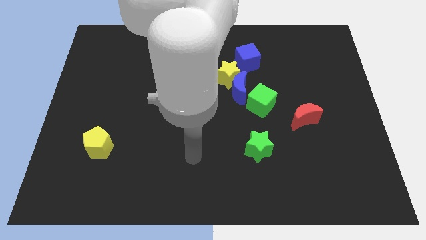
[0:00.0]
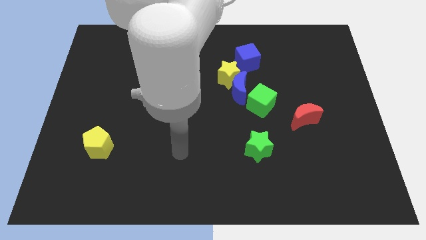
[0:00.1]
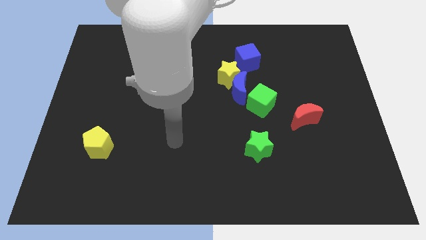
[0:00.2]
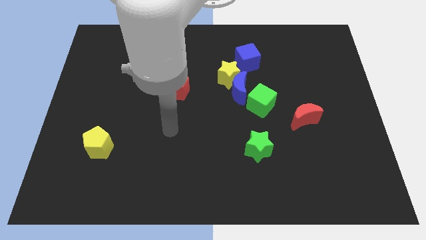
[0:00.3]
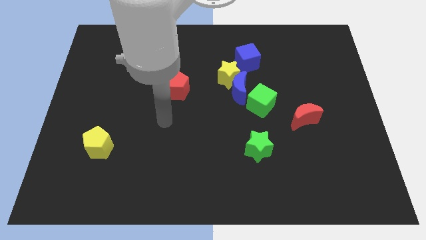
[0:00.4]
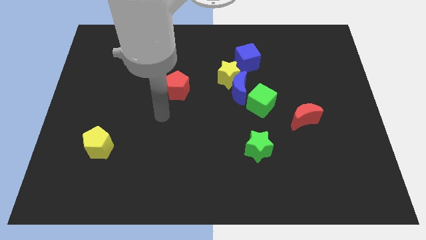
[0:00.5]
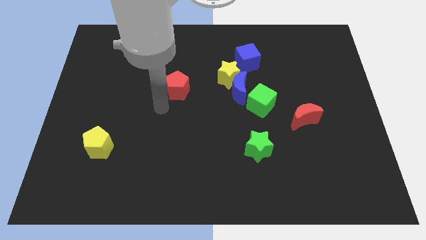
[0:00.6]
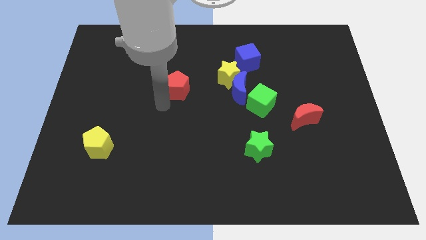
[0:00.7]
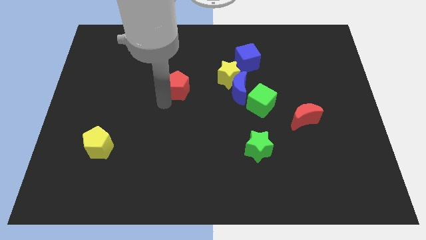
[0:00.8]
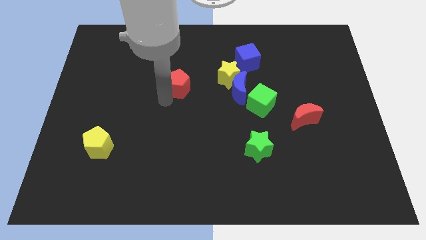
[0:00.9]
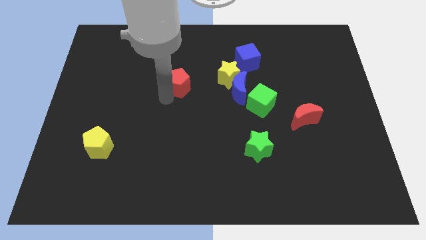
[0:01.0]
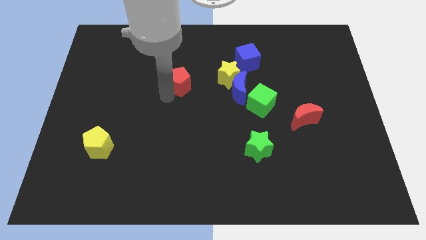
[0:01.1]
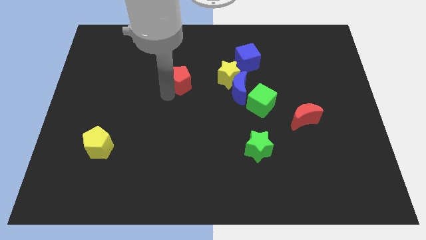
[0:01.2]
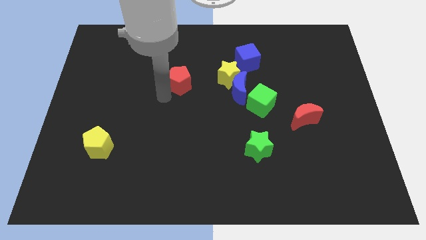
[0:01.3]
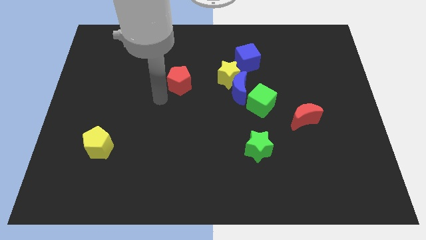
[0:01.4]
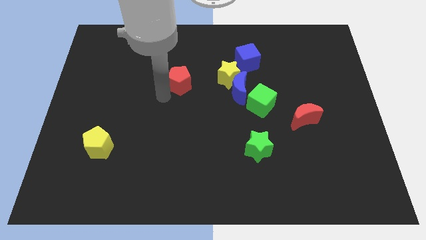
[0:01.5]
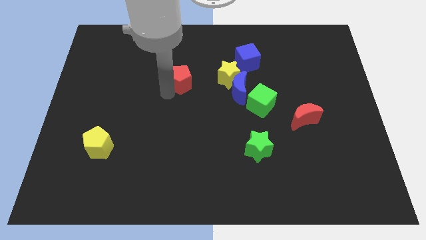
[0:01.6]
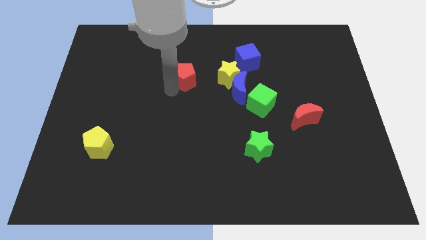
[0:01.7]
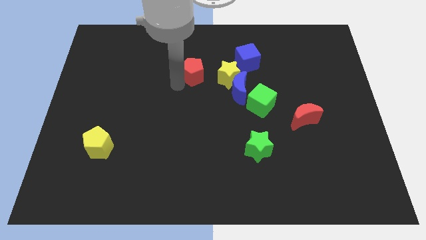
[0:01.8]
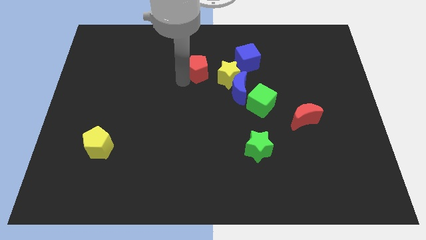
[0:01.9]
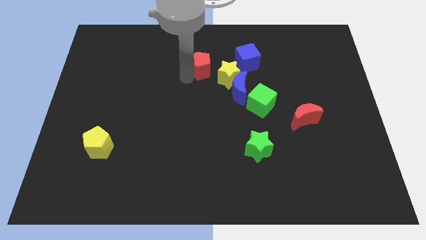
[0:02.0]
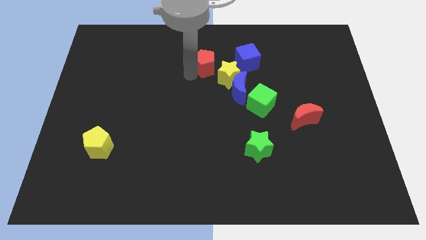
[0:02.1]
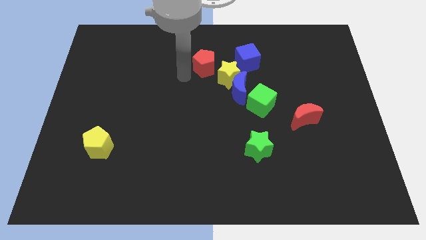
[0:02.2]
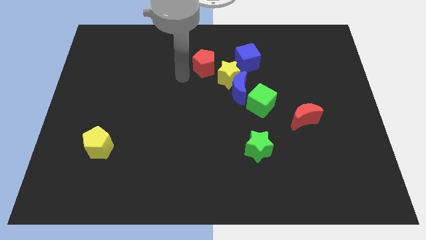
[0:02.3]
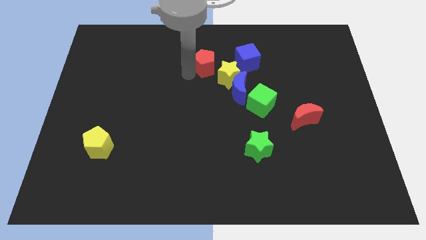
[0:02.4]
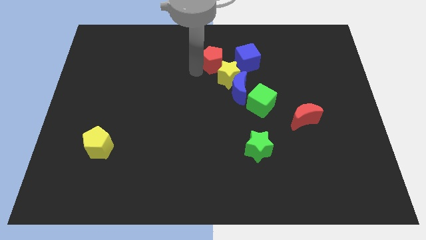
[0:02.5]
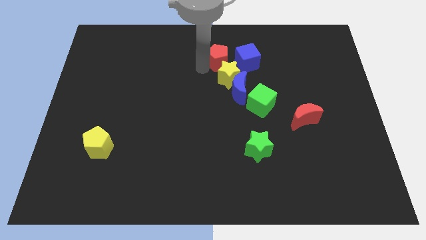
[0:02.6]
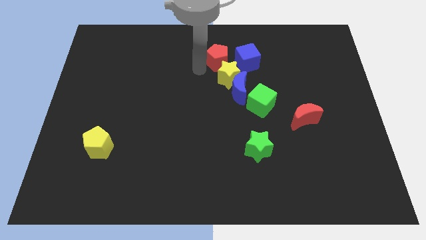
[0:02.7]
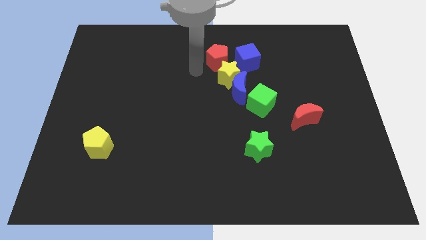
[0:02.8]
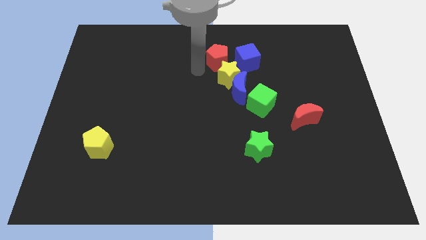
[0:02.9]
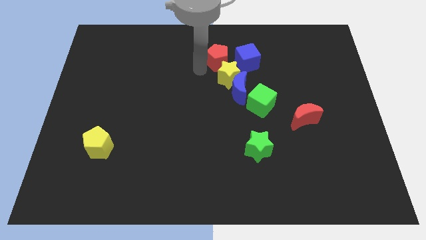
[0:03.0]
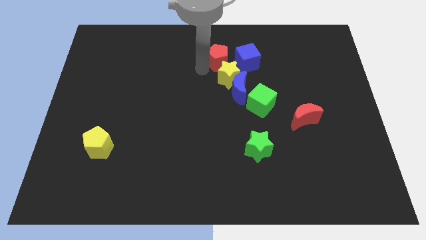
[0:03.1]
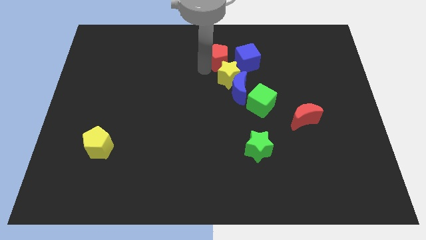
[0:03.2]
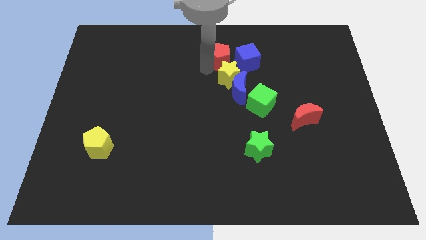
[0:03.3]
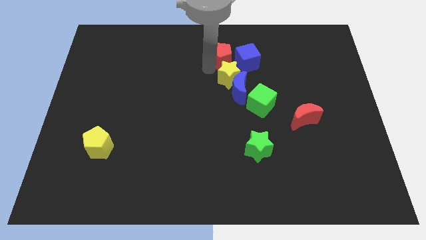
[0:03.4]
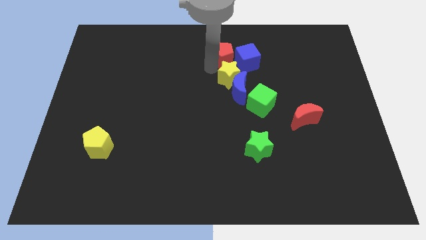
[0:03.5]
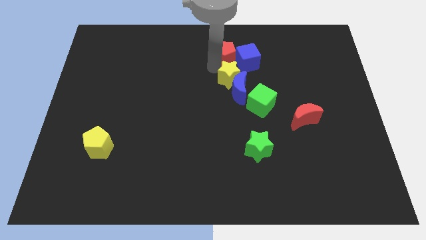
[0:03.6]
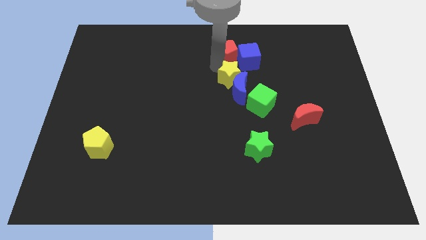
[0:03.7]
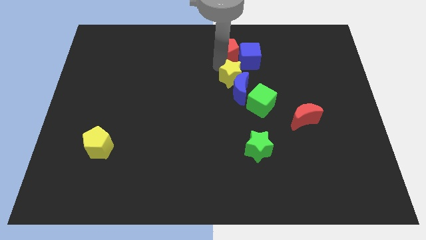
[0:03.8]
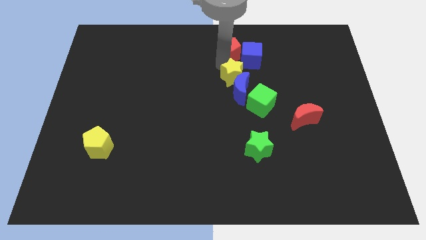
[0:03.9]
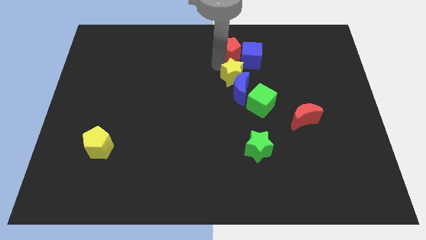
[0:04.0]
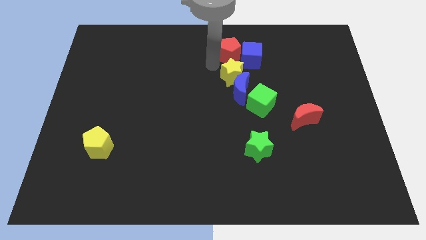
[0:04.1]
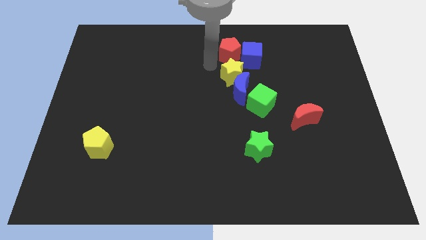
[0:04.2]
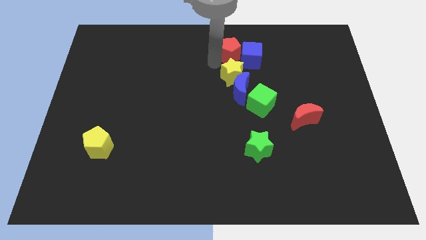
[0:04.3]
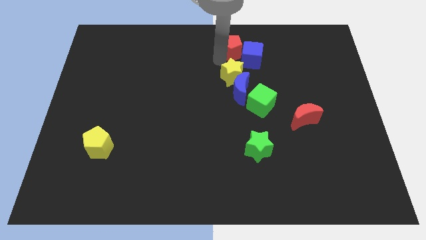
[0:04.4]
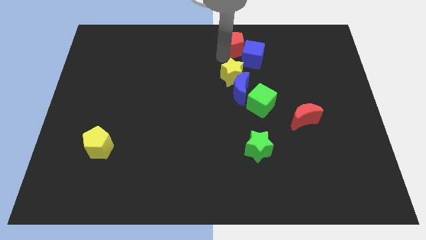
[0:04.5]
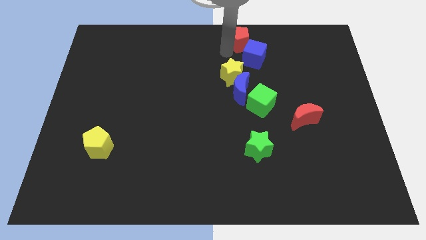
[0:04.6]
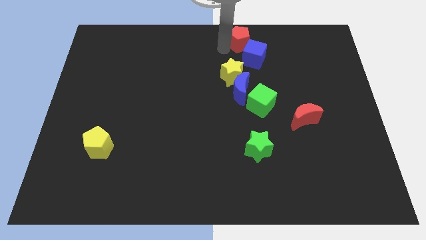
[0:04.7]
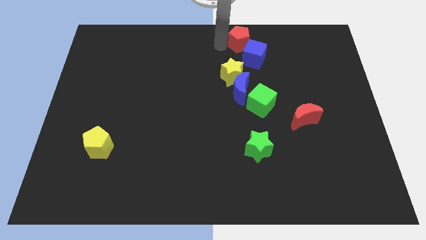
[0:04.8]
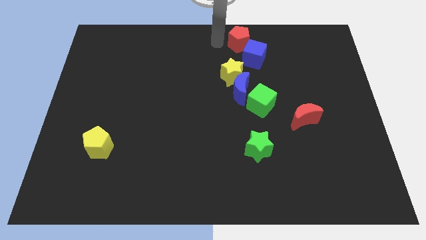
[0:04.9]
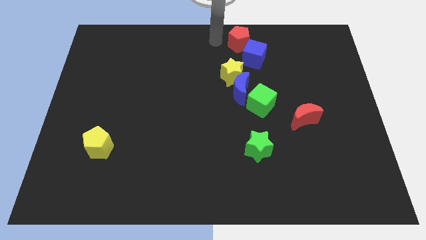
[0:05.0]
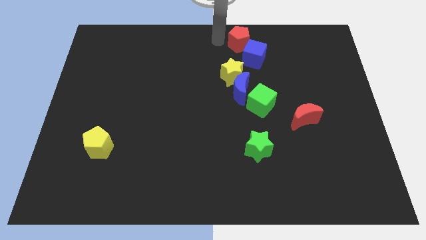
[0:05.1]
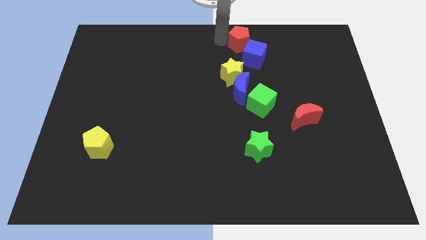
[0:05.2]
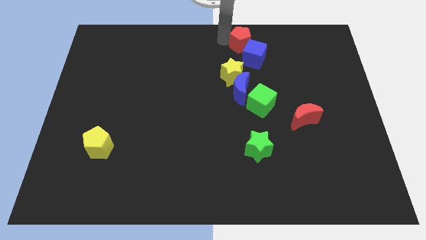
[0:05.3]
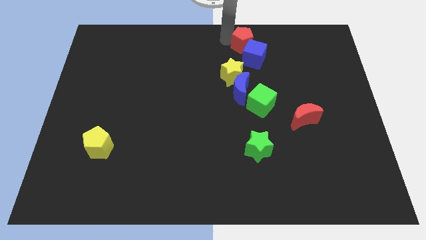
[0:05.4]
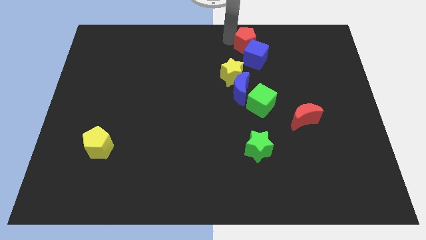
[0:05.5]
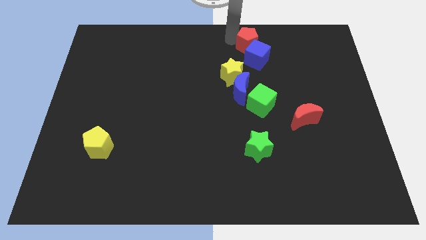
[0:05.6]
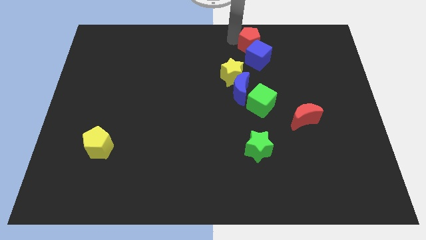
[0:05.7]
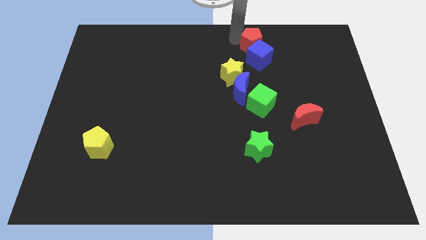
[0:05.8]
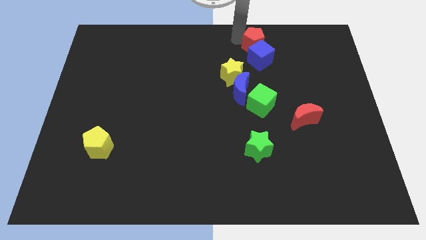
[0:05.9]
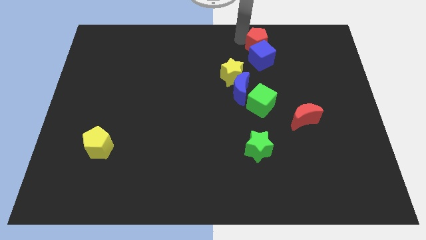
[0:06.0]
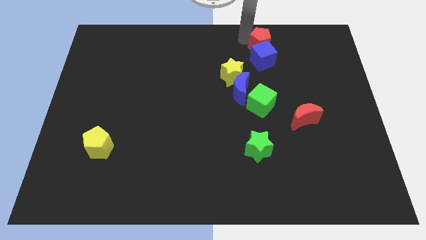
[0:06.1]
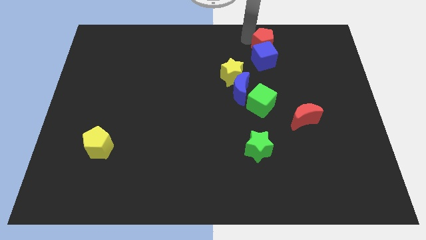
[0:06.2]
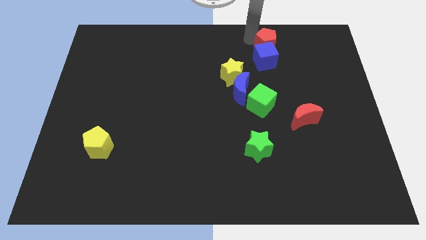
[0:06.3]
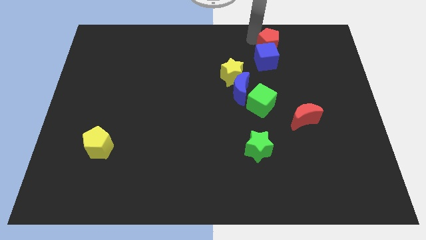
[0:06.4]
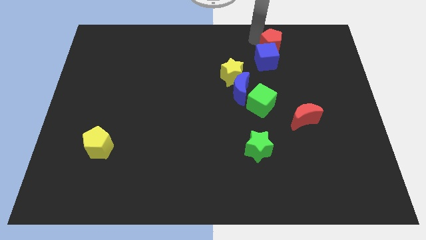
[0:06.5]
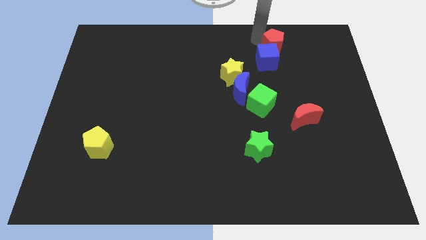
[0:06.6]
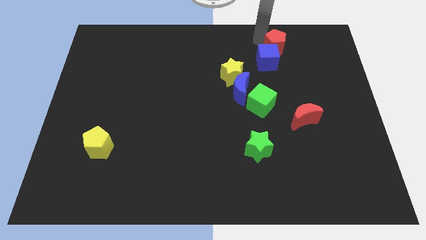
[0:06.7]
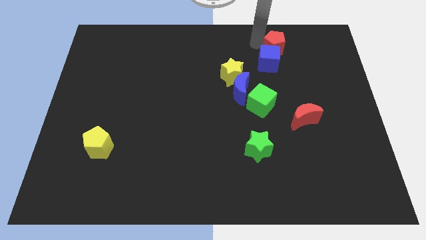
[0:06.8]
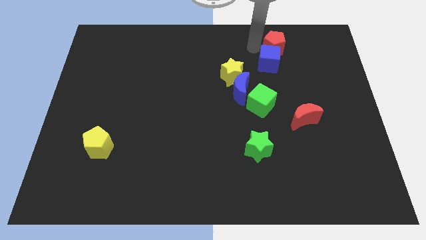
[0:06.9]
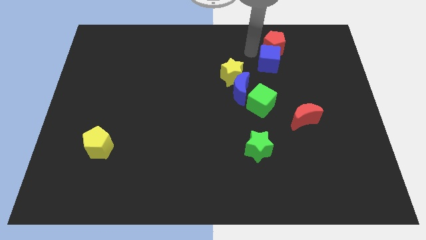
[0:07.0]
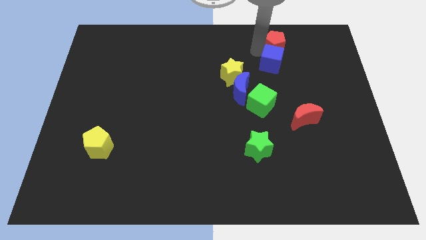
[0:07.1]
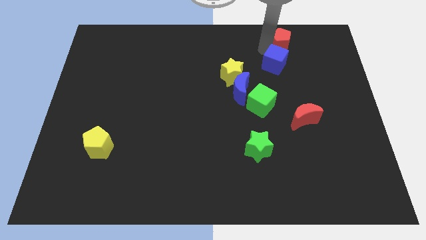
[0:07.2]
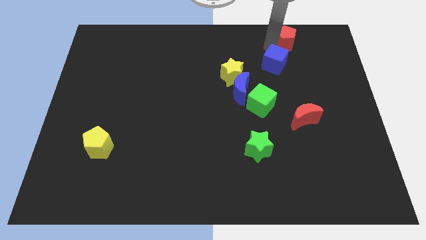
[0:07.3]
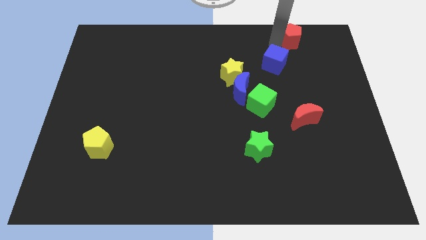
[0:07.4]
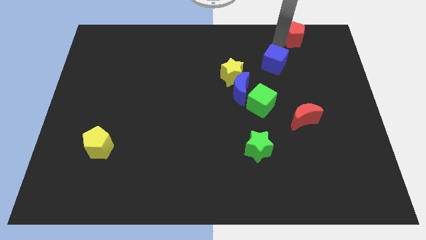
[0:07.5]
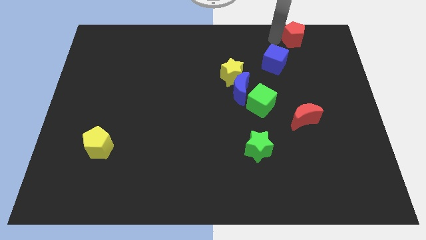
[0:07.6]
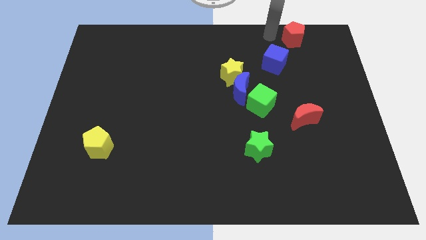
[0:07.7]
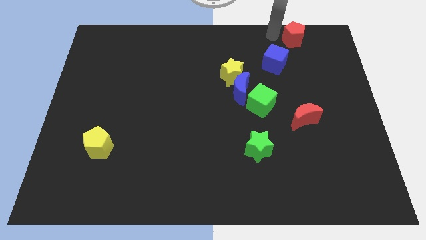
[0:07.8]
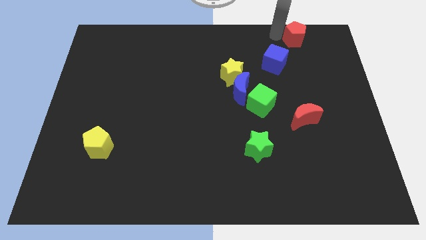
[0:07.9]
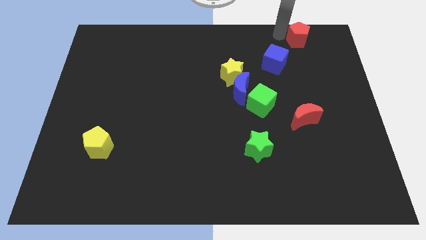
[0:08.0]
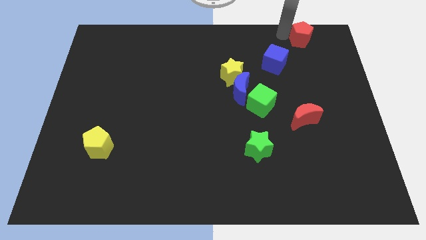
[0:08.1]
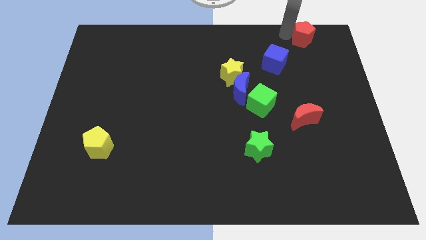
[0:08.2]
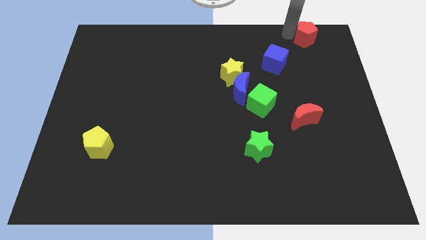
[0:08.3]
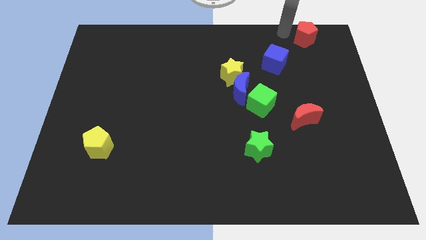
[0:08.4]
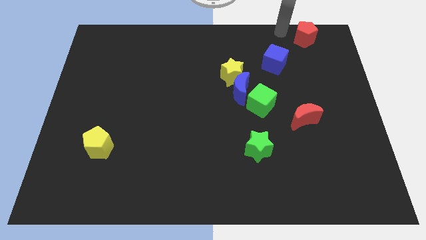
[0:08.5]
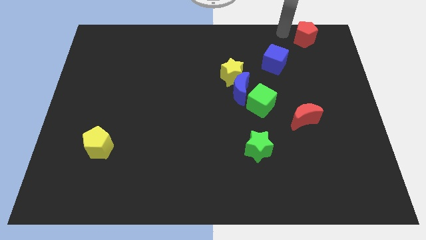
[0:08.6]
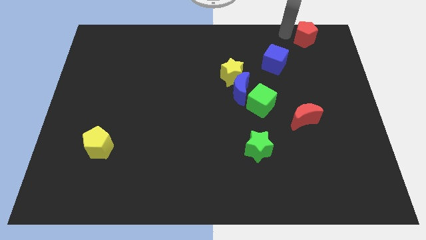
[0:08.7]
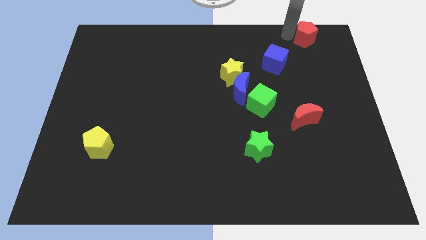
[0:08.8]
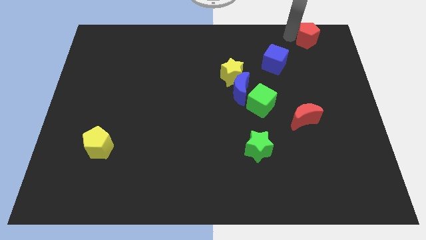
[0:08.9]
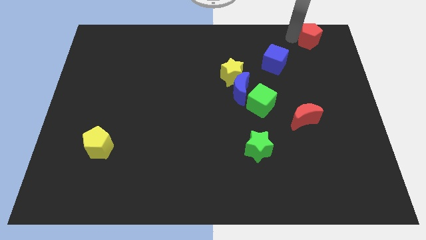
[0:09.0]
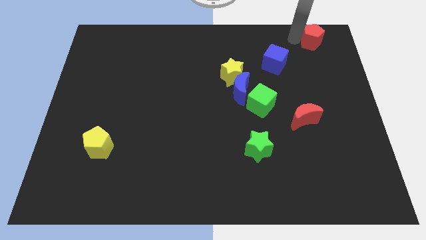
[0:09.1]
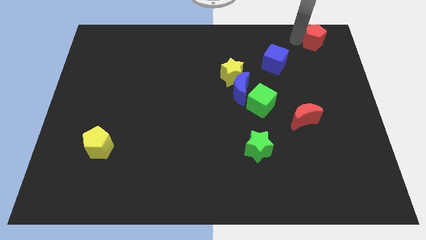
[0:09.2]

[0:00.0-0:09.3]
slide the red pentagon to the top right corner
